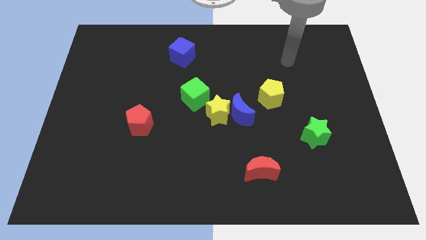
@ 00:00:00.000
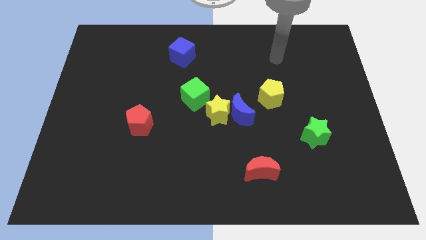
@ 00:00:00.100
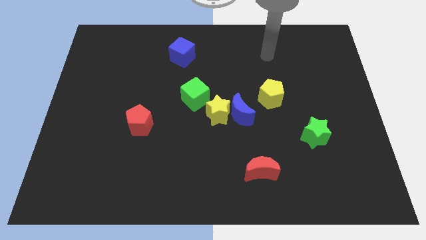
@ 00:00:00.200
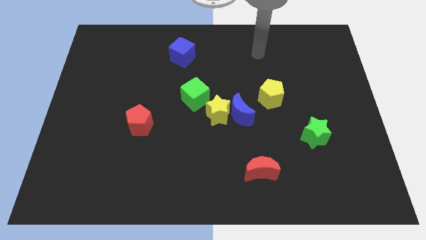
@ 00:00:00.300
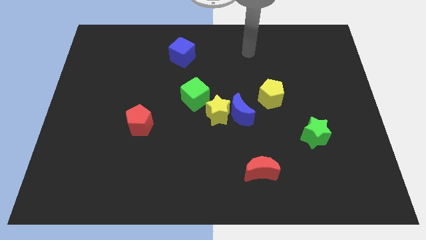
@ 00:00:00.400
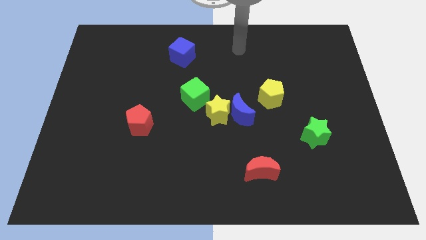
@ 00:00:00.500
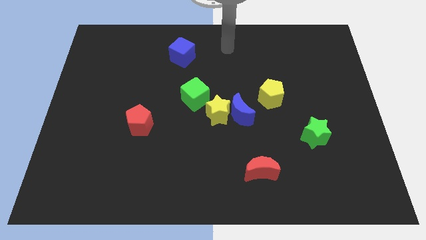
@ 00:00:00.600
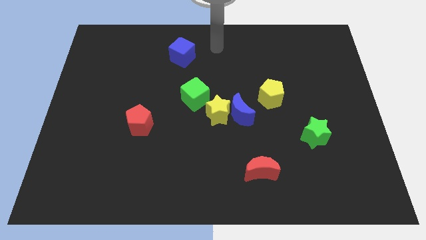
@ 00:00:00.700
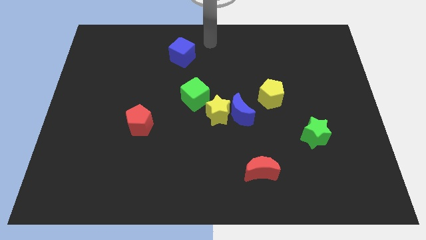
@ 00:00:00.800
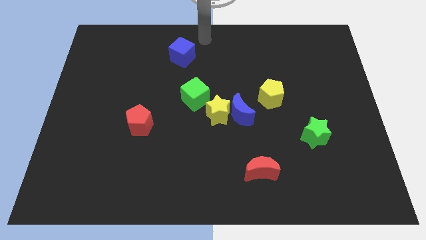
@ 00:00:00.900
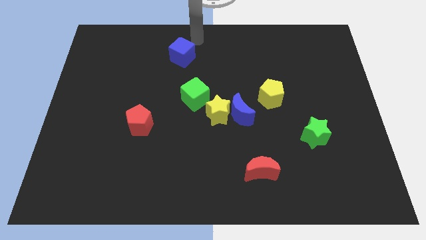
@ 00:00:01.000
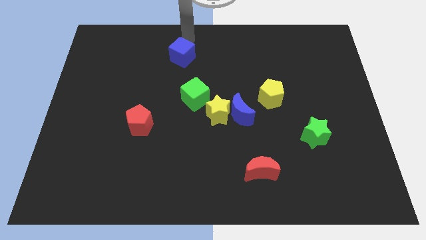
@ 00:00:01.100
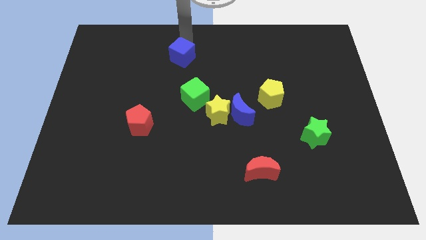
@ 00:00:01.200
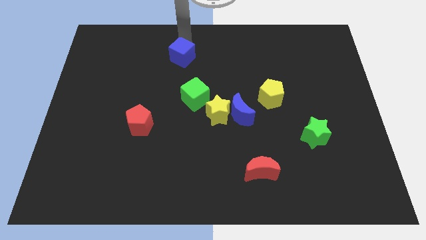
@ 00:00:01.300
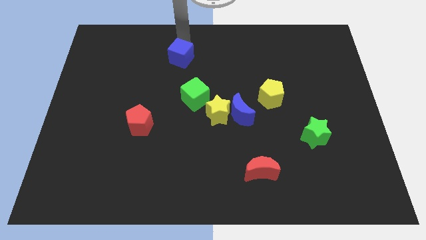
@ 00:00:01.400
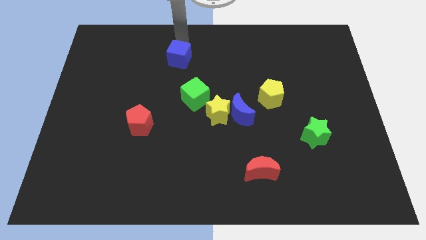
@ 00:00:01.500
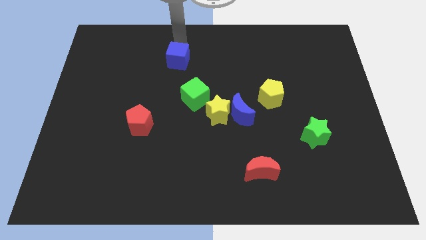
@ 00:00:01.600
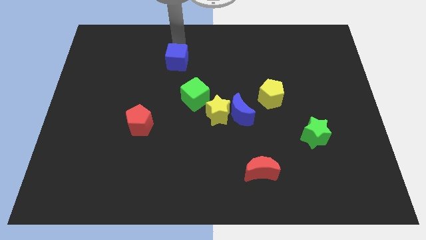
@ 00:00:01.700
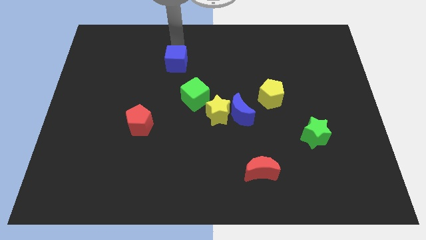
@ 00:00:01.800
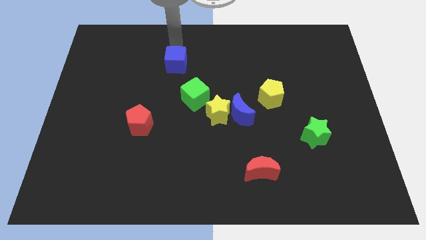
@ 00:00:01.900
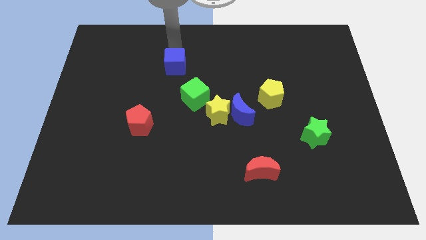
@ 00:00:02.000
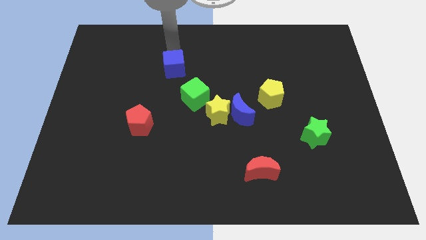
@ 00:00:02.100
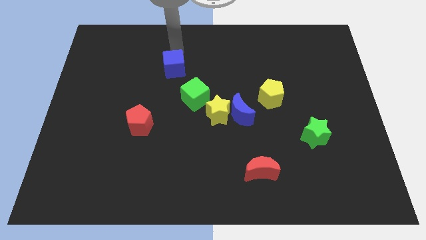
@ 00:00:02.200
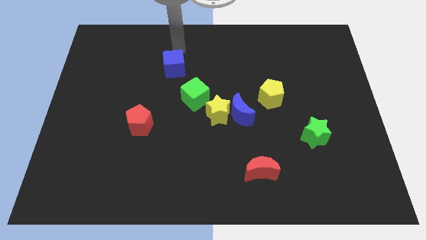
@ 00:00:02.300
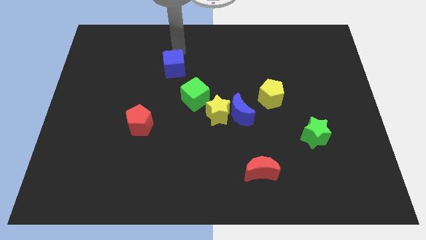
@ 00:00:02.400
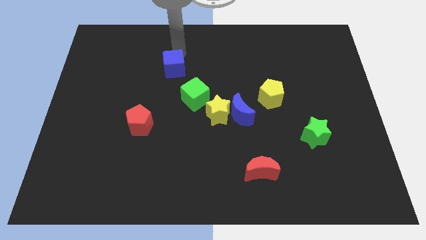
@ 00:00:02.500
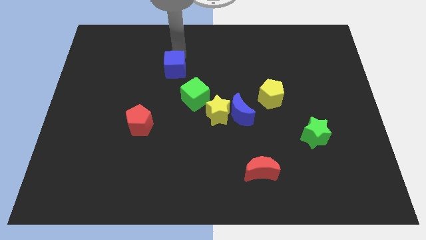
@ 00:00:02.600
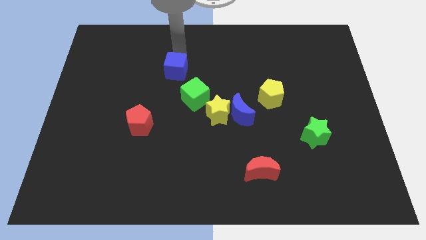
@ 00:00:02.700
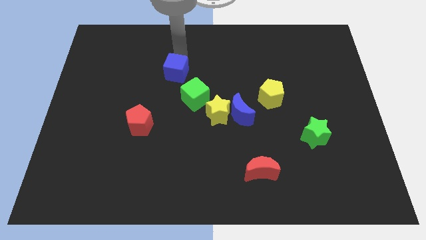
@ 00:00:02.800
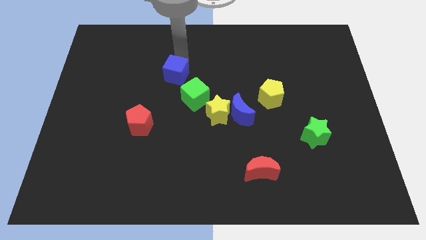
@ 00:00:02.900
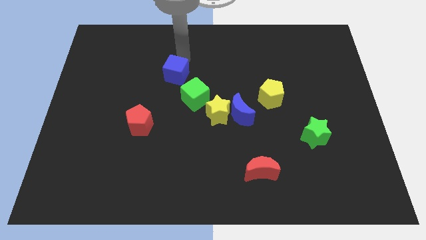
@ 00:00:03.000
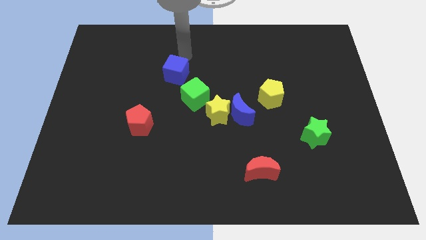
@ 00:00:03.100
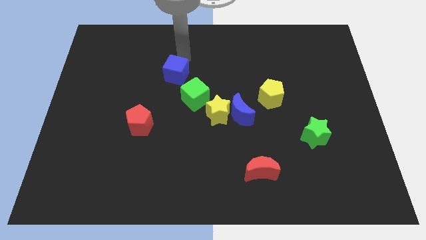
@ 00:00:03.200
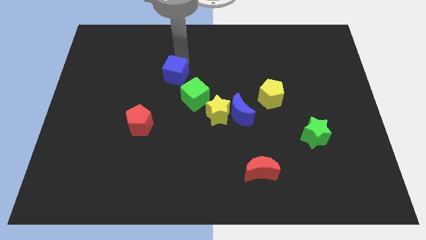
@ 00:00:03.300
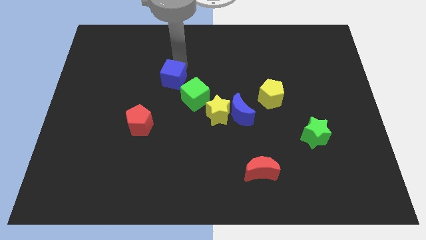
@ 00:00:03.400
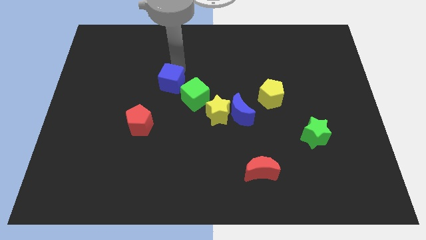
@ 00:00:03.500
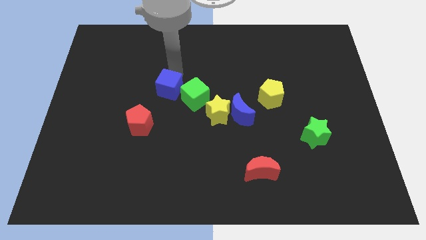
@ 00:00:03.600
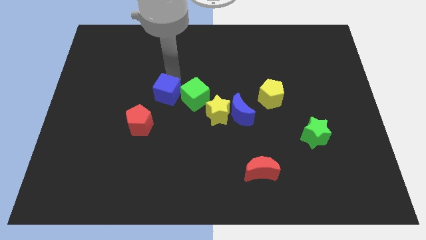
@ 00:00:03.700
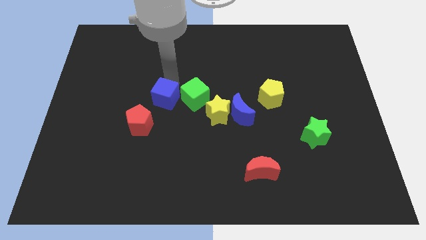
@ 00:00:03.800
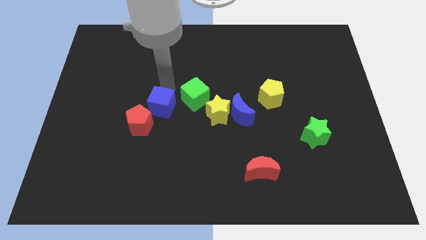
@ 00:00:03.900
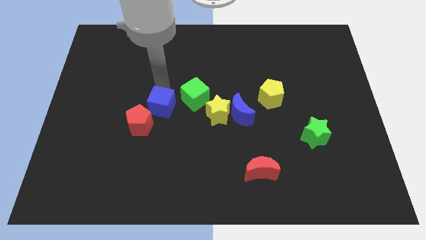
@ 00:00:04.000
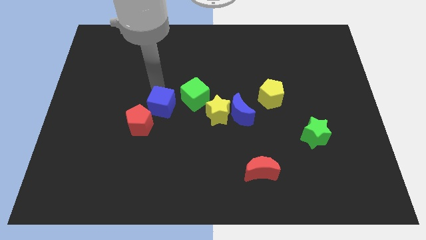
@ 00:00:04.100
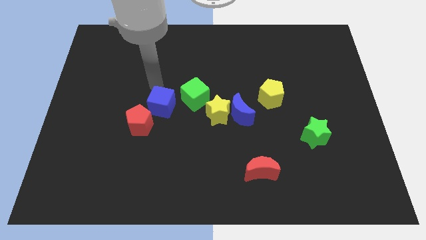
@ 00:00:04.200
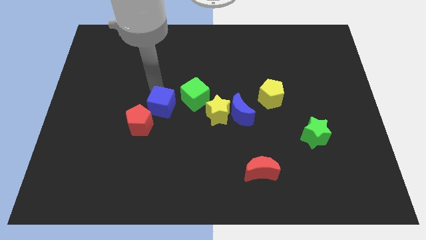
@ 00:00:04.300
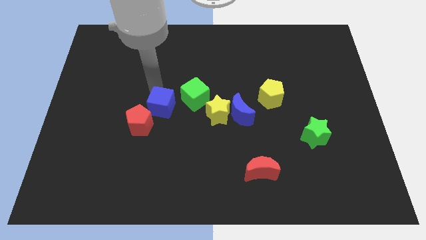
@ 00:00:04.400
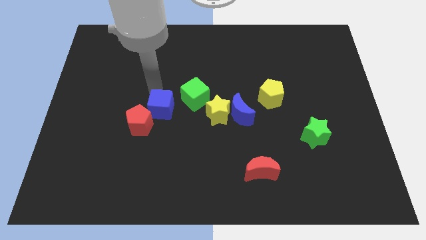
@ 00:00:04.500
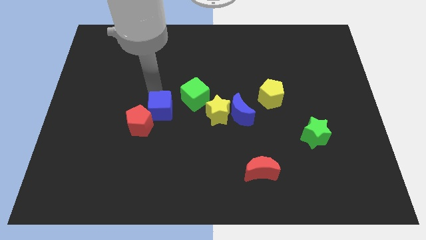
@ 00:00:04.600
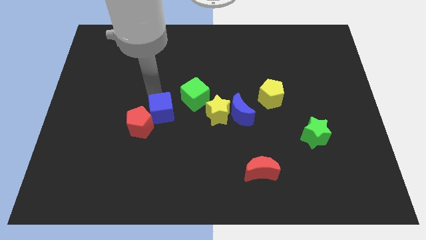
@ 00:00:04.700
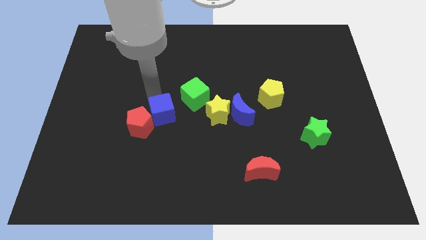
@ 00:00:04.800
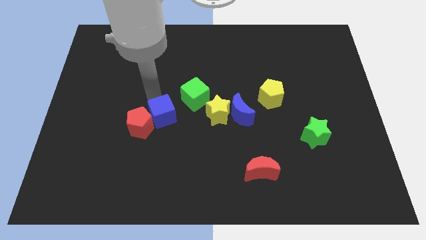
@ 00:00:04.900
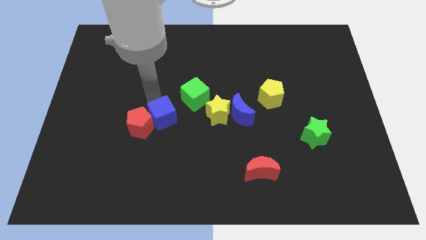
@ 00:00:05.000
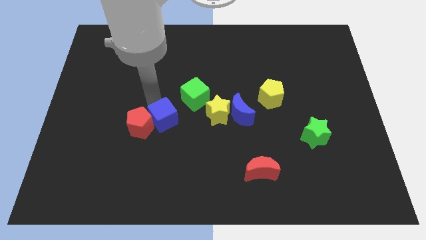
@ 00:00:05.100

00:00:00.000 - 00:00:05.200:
move the blue cube downwards

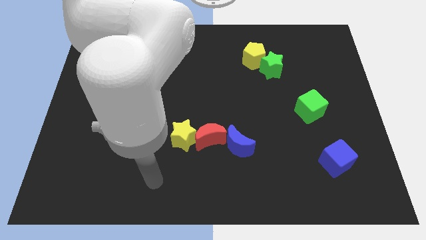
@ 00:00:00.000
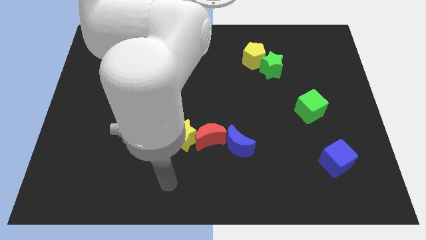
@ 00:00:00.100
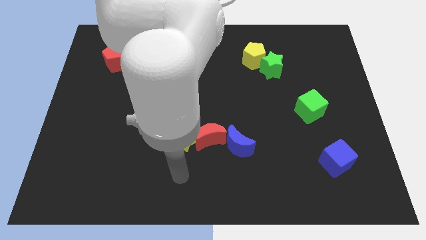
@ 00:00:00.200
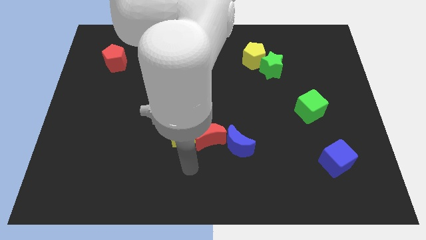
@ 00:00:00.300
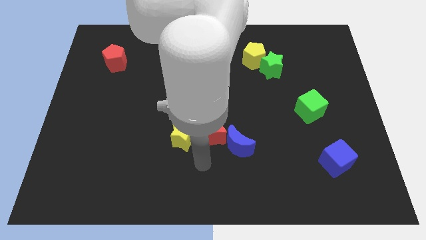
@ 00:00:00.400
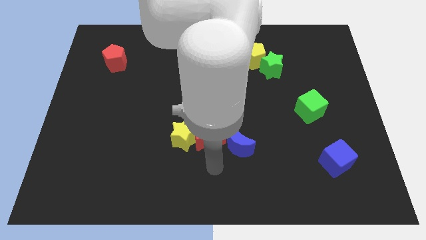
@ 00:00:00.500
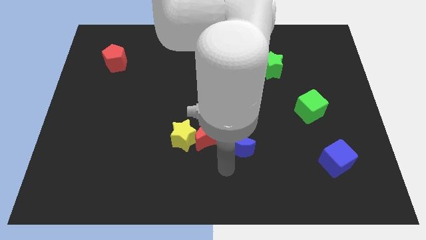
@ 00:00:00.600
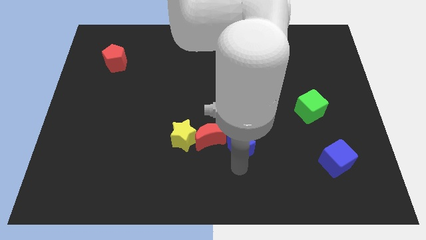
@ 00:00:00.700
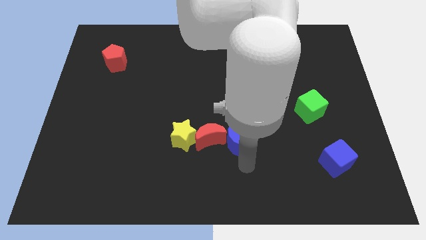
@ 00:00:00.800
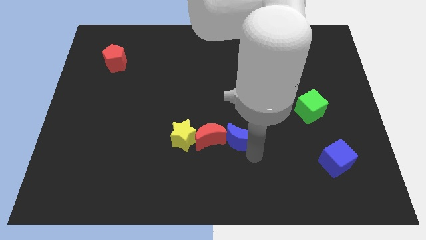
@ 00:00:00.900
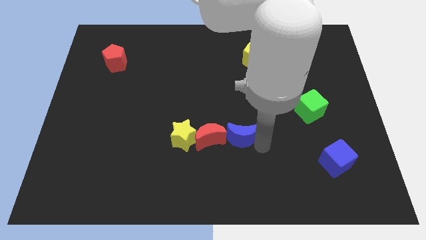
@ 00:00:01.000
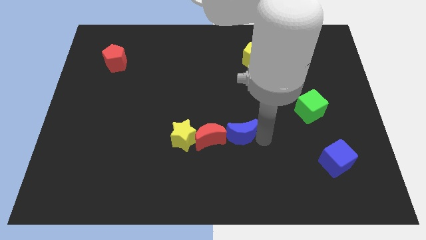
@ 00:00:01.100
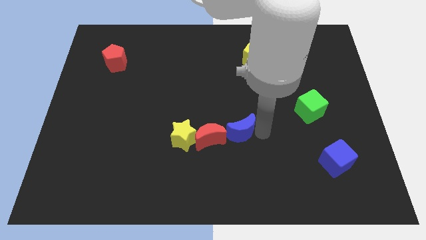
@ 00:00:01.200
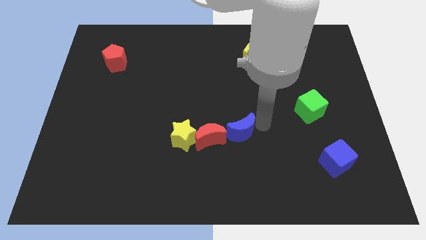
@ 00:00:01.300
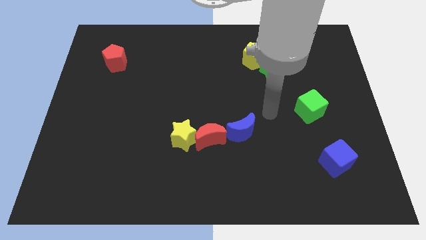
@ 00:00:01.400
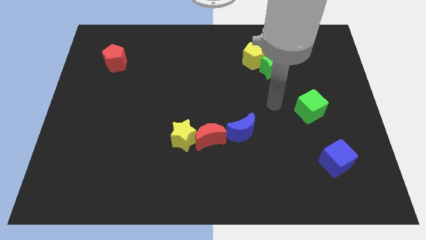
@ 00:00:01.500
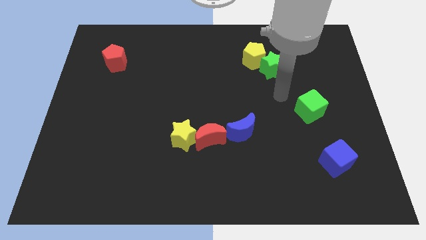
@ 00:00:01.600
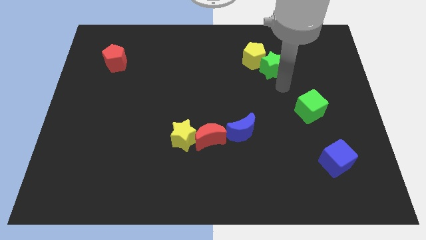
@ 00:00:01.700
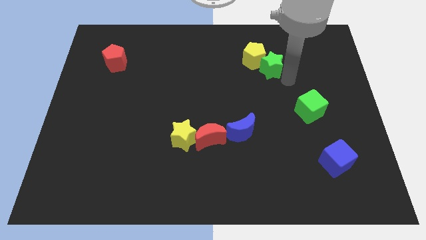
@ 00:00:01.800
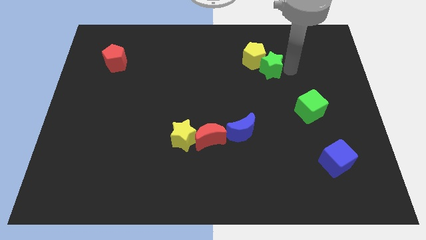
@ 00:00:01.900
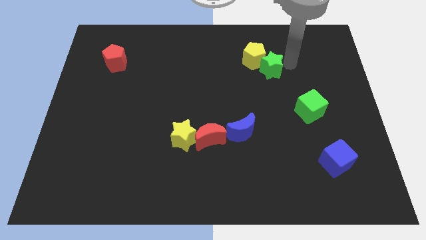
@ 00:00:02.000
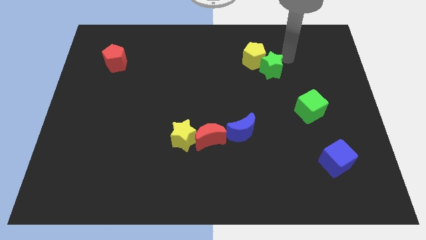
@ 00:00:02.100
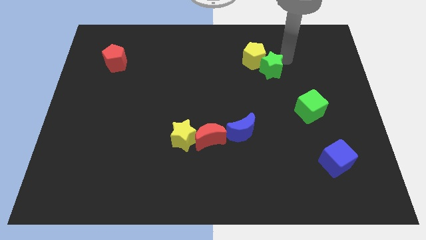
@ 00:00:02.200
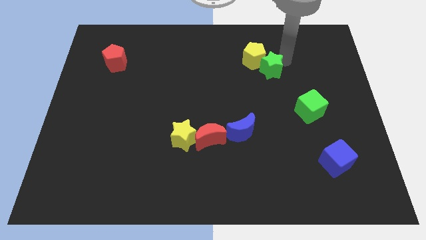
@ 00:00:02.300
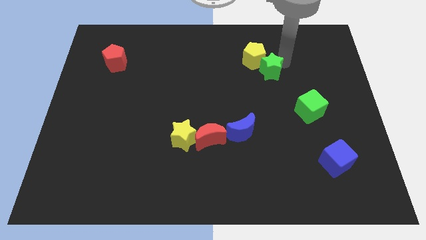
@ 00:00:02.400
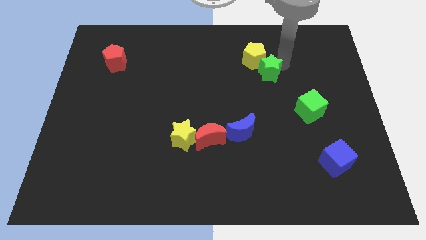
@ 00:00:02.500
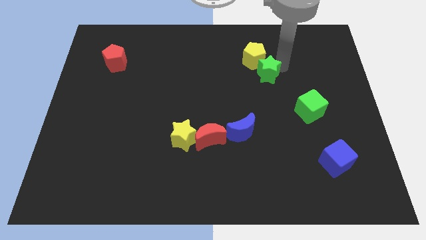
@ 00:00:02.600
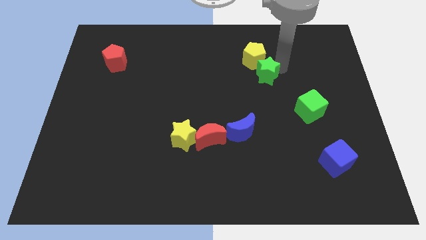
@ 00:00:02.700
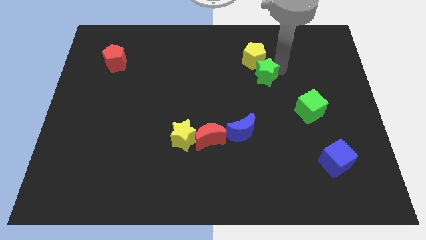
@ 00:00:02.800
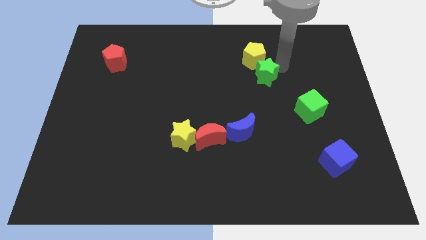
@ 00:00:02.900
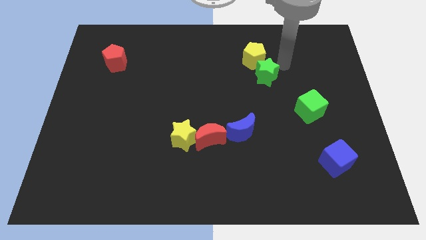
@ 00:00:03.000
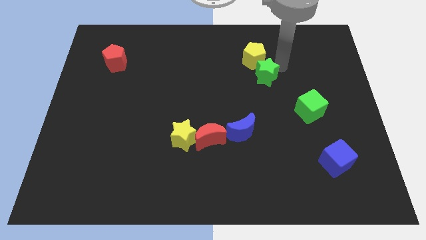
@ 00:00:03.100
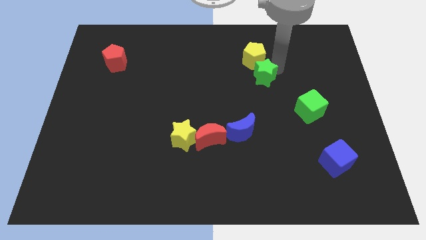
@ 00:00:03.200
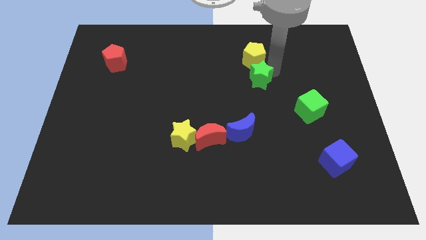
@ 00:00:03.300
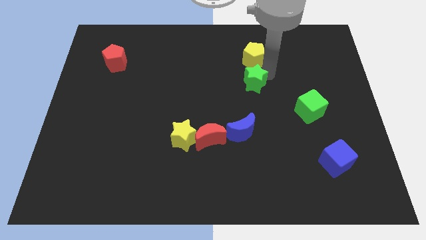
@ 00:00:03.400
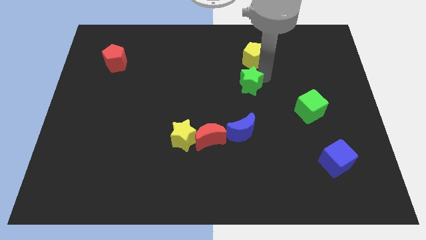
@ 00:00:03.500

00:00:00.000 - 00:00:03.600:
push the green star a bit downwards and to the left
